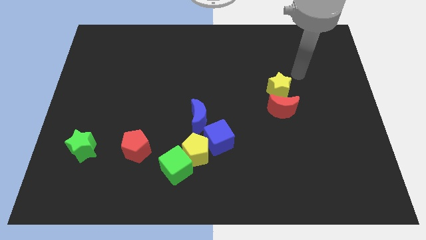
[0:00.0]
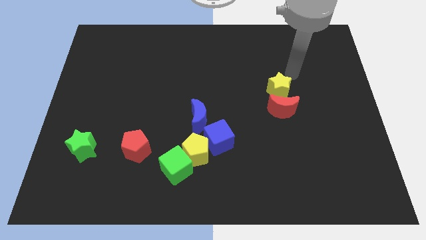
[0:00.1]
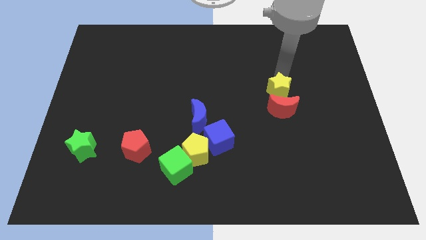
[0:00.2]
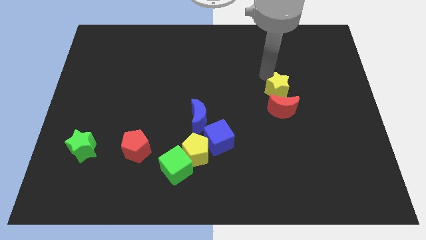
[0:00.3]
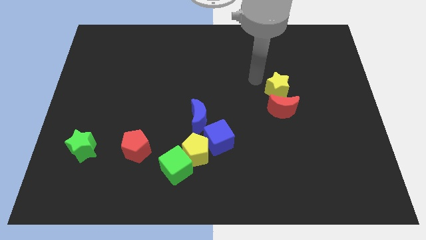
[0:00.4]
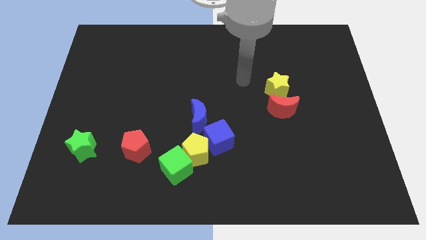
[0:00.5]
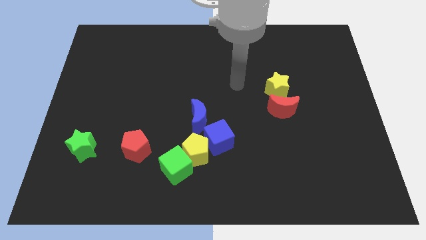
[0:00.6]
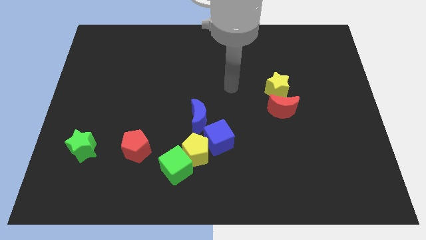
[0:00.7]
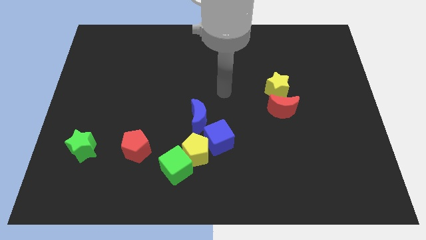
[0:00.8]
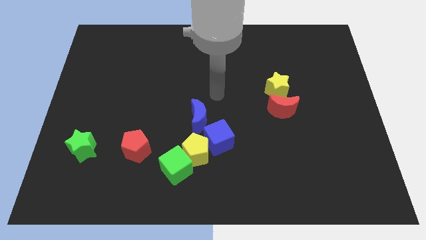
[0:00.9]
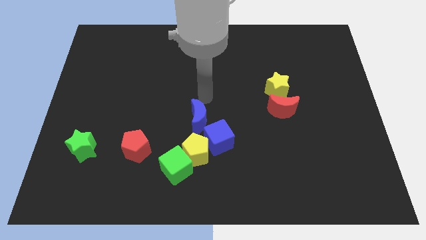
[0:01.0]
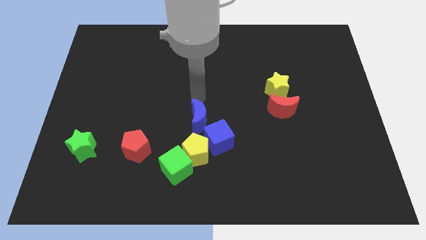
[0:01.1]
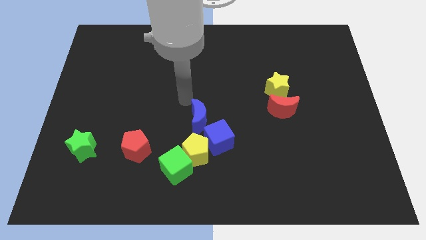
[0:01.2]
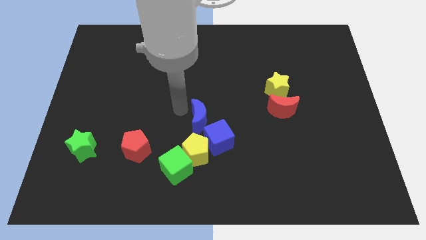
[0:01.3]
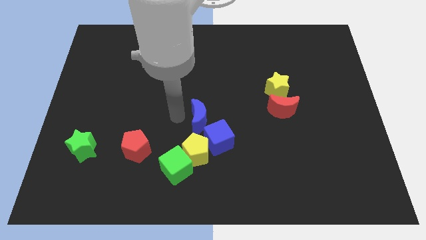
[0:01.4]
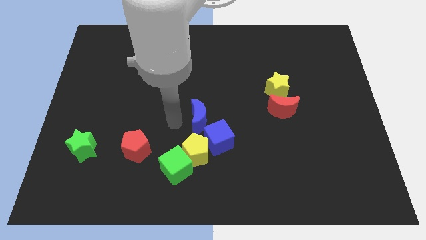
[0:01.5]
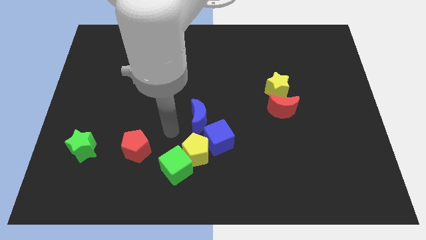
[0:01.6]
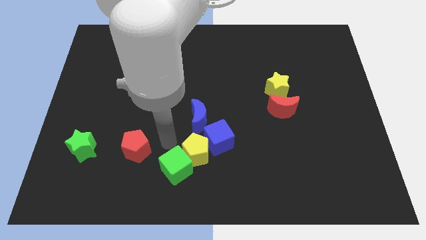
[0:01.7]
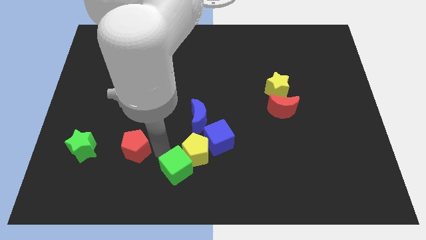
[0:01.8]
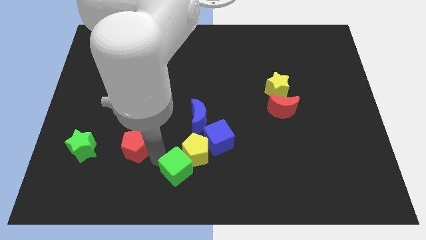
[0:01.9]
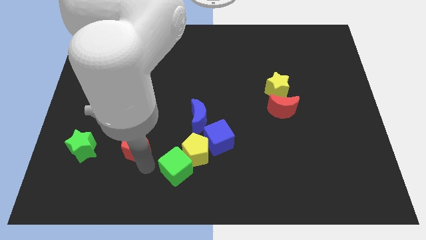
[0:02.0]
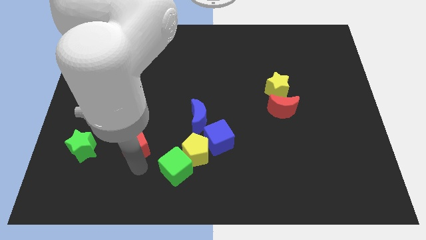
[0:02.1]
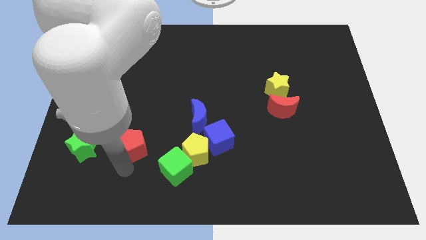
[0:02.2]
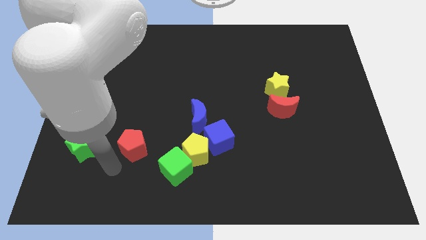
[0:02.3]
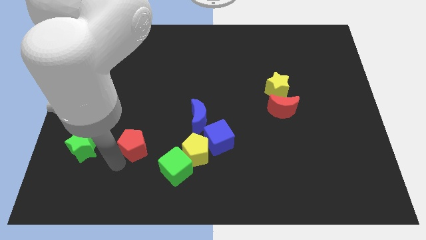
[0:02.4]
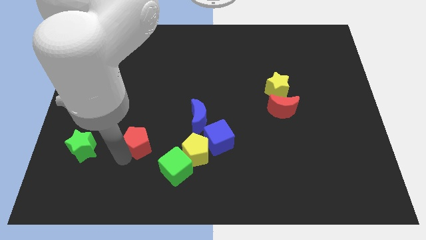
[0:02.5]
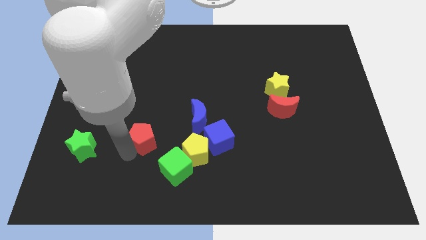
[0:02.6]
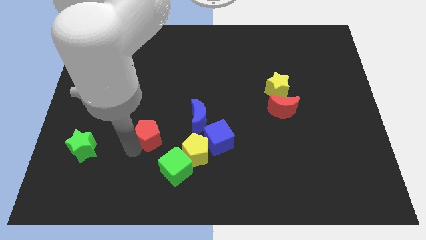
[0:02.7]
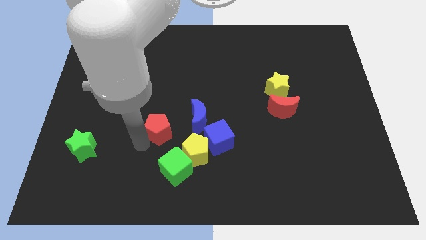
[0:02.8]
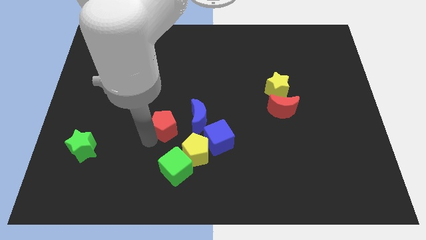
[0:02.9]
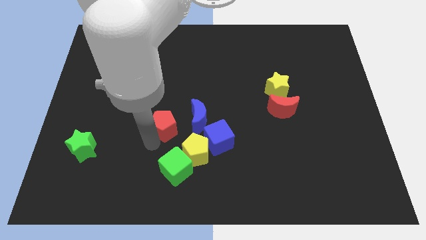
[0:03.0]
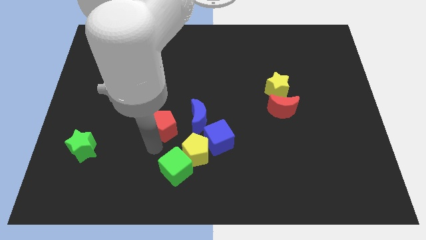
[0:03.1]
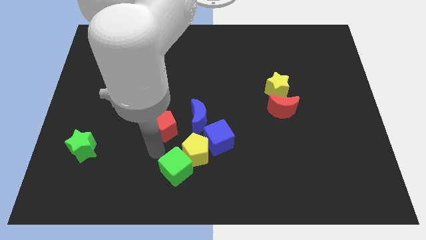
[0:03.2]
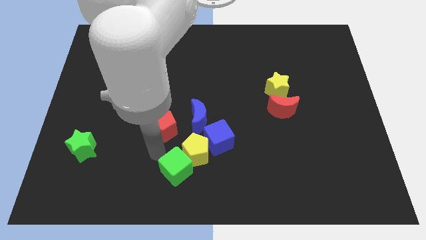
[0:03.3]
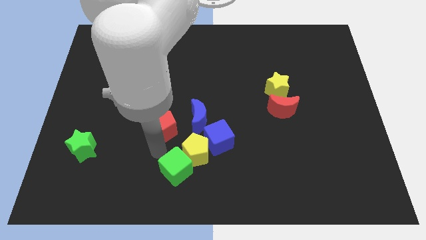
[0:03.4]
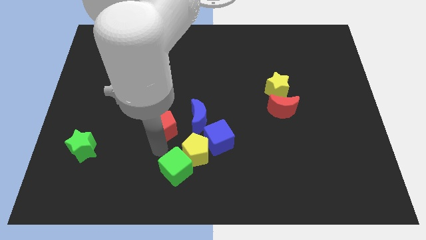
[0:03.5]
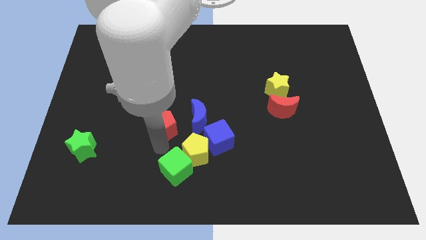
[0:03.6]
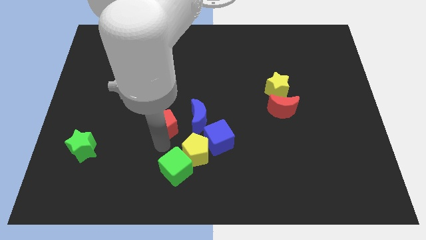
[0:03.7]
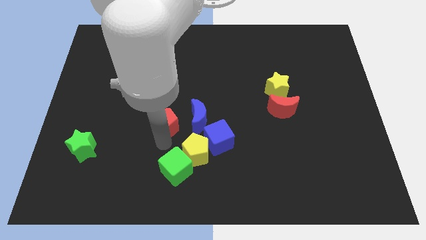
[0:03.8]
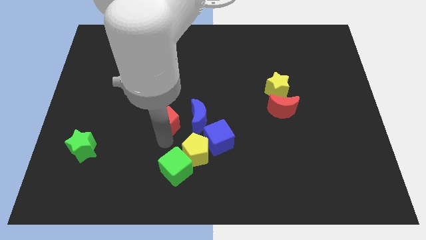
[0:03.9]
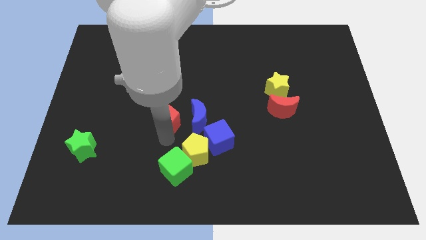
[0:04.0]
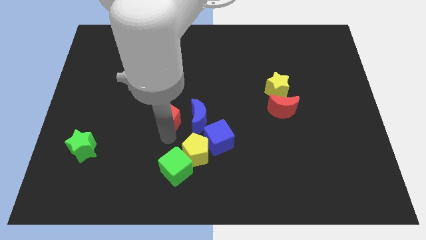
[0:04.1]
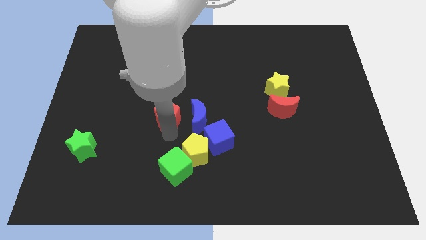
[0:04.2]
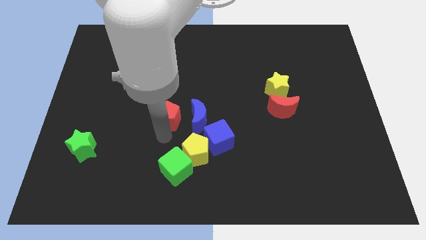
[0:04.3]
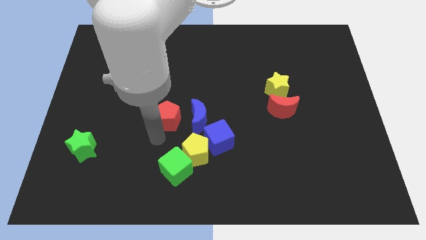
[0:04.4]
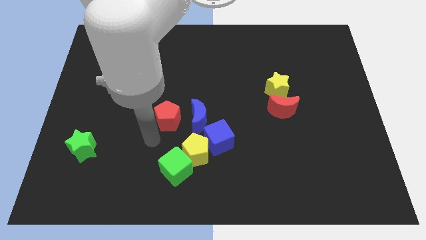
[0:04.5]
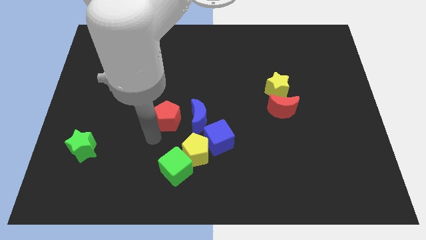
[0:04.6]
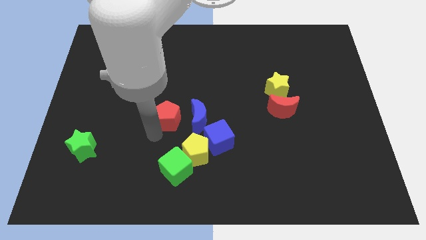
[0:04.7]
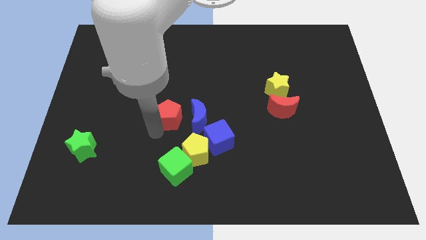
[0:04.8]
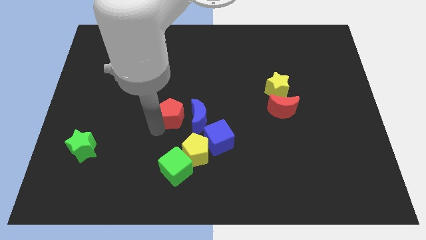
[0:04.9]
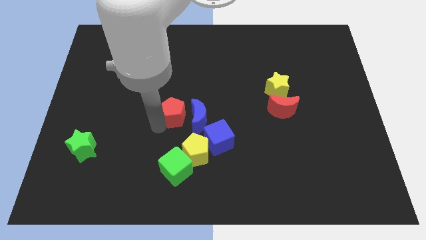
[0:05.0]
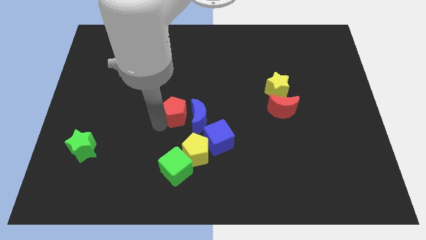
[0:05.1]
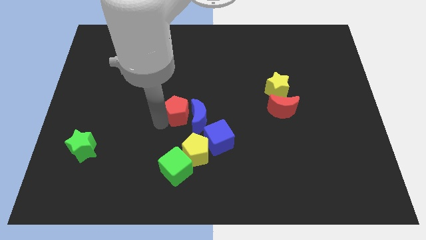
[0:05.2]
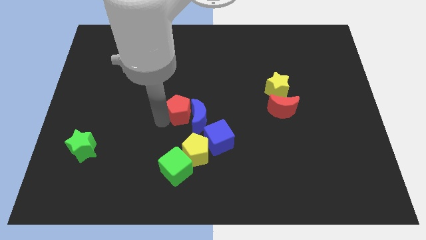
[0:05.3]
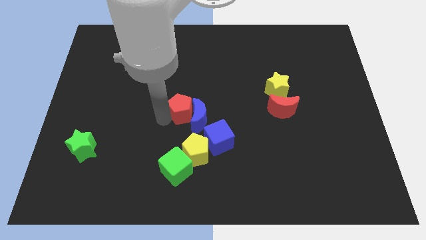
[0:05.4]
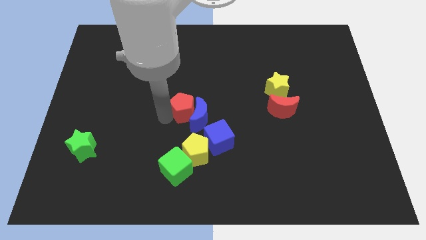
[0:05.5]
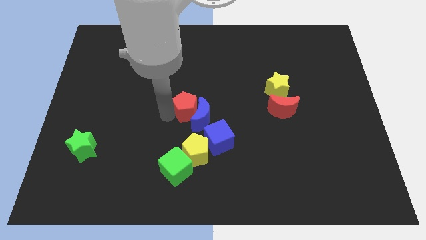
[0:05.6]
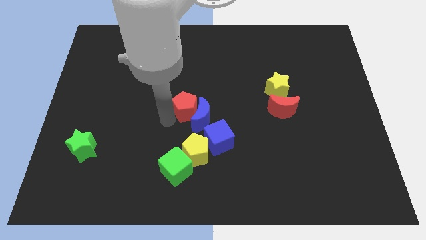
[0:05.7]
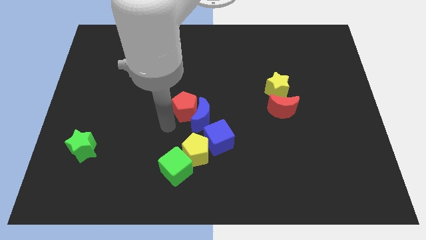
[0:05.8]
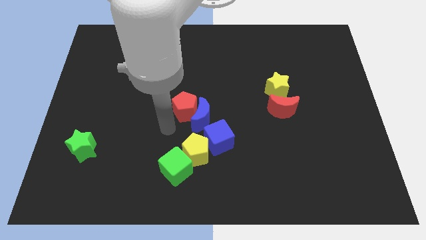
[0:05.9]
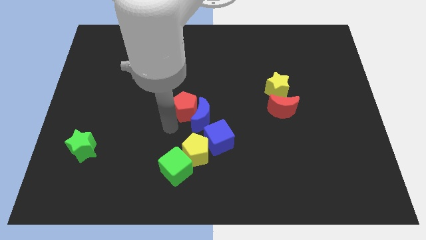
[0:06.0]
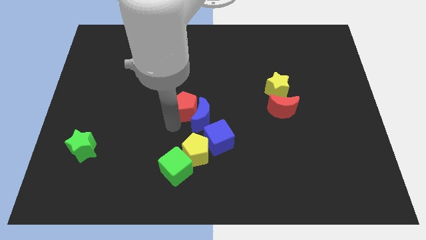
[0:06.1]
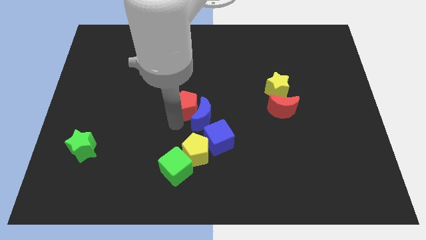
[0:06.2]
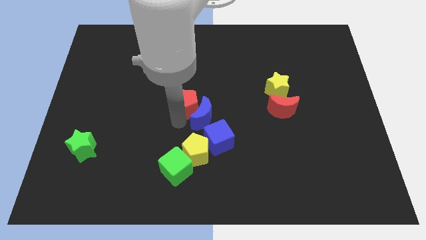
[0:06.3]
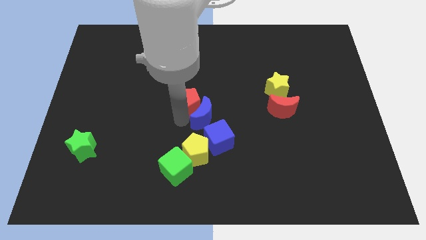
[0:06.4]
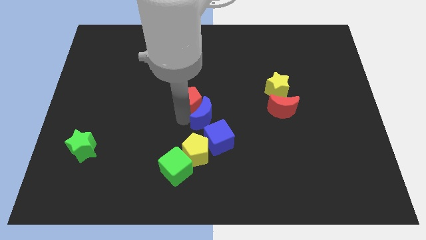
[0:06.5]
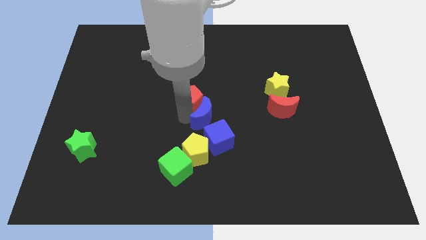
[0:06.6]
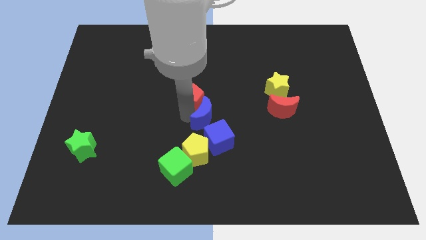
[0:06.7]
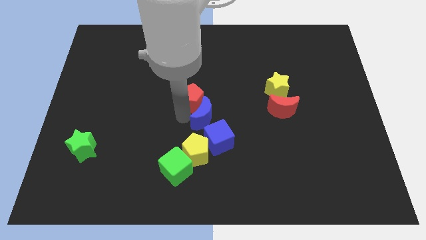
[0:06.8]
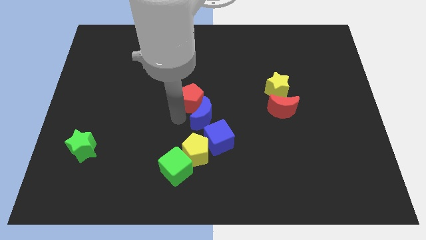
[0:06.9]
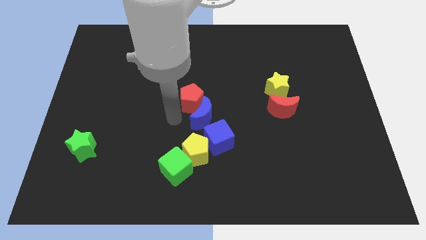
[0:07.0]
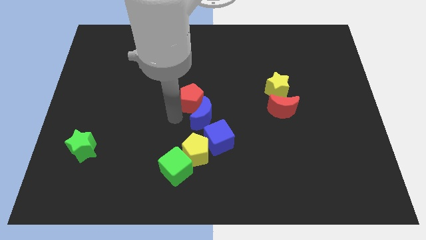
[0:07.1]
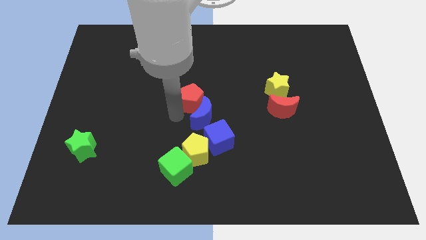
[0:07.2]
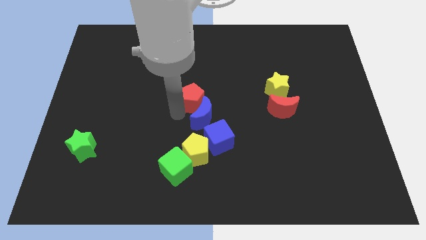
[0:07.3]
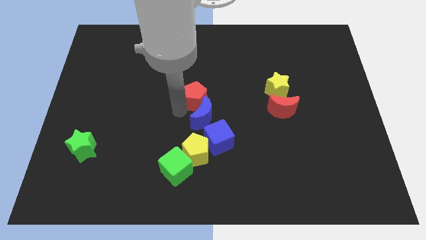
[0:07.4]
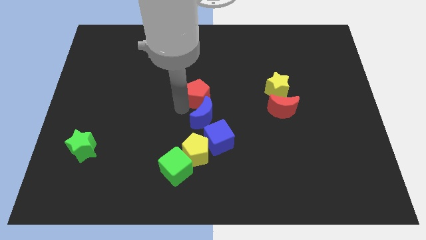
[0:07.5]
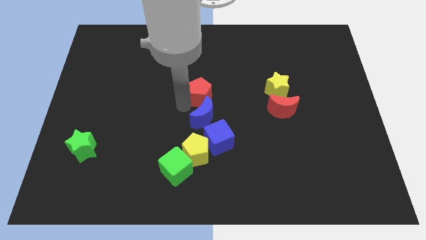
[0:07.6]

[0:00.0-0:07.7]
move the red pentagon upwards and then to the right
